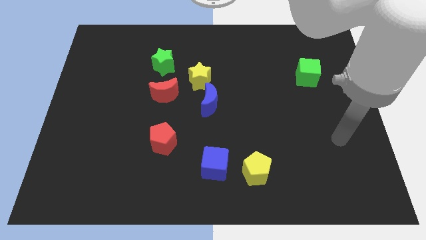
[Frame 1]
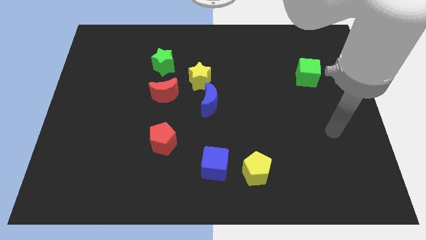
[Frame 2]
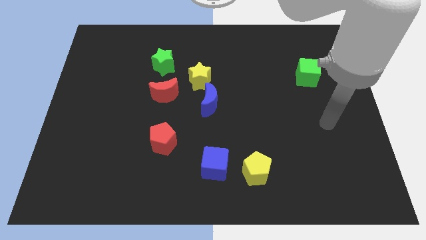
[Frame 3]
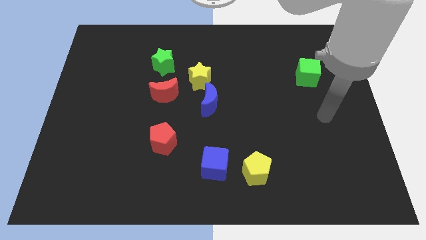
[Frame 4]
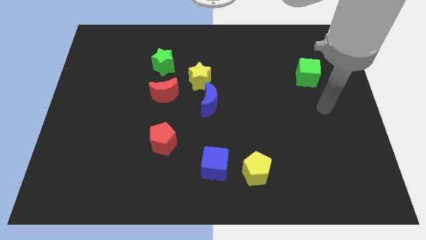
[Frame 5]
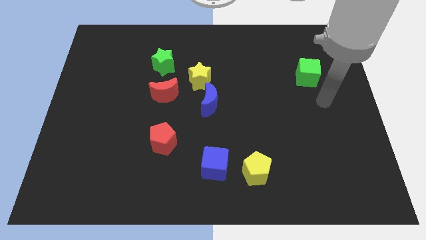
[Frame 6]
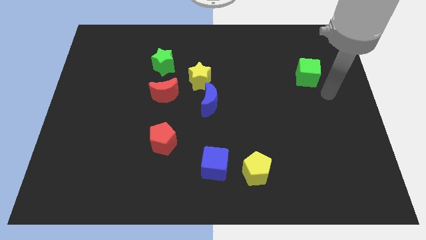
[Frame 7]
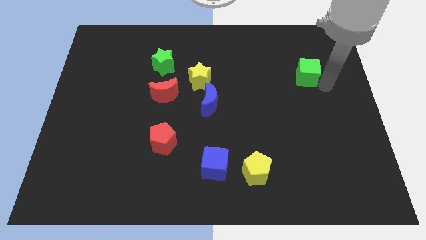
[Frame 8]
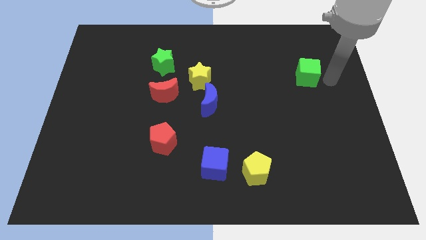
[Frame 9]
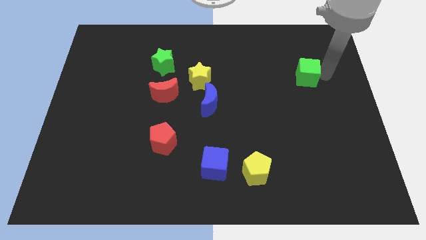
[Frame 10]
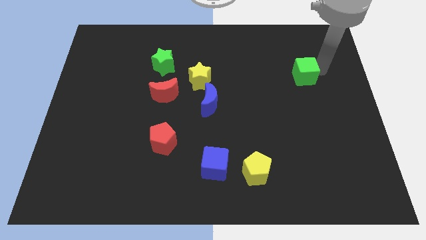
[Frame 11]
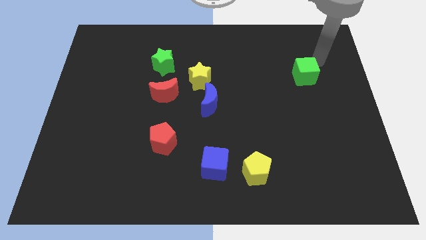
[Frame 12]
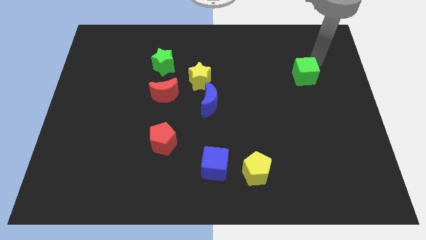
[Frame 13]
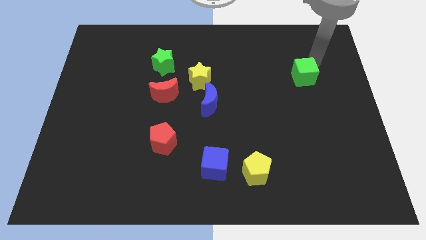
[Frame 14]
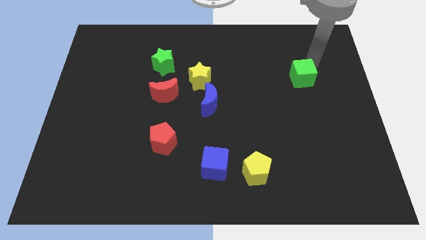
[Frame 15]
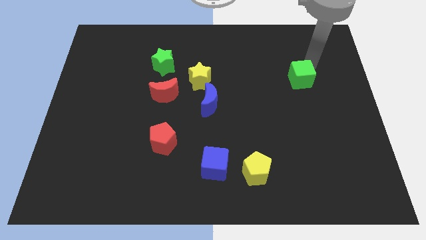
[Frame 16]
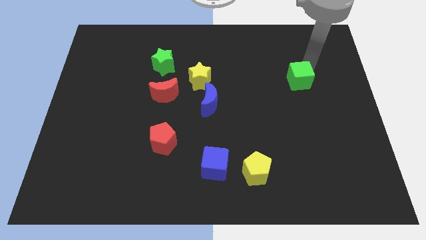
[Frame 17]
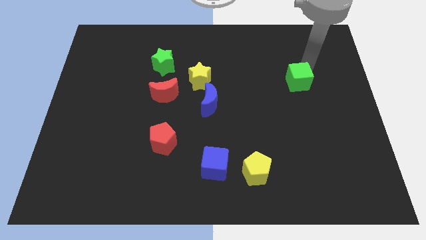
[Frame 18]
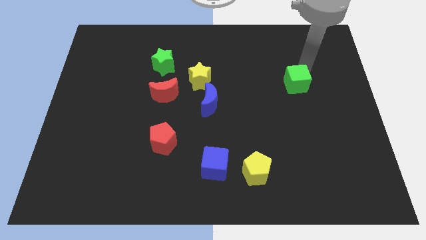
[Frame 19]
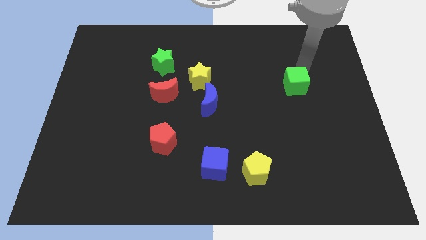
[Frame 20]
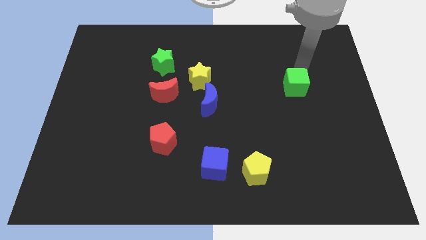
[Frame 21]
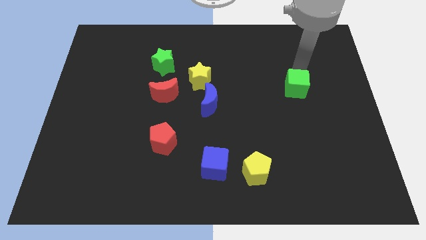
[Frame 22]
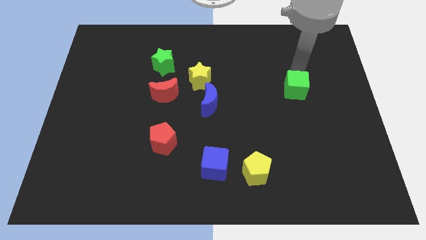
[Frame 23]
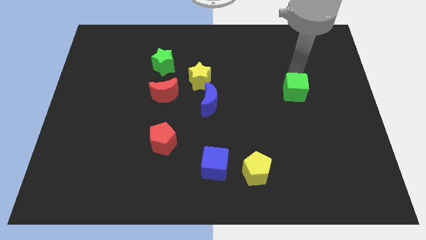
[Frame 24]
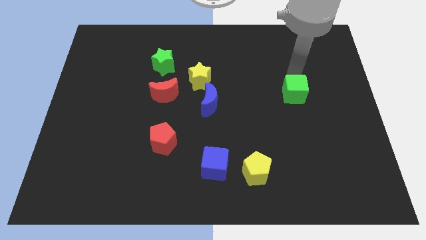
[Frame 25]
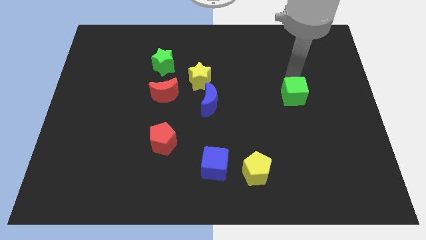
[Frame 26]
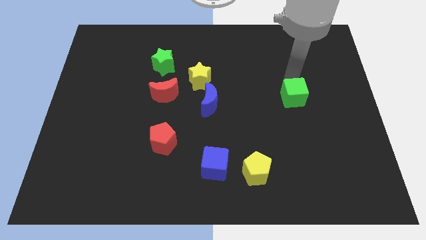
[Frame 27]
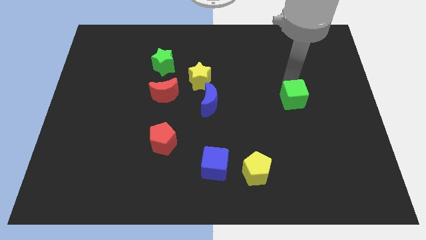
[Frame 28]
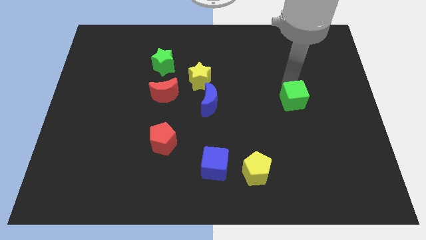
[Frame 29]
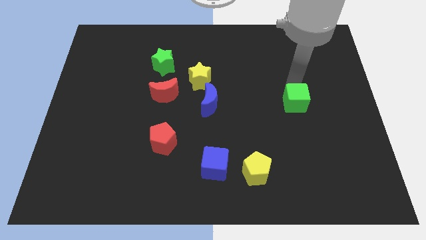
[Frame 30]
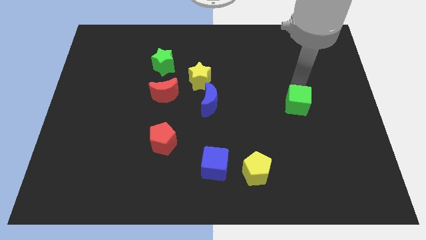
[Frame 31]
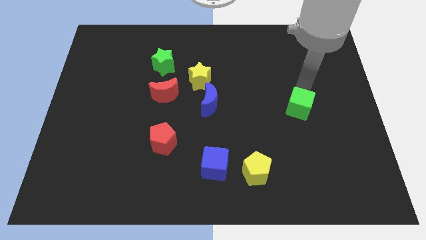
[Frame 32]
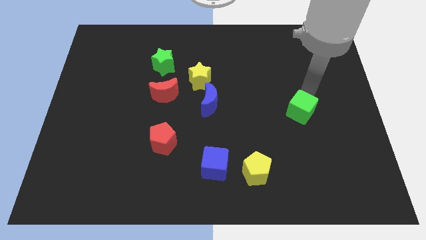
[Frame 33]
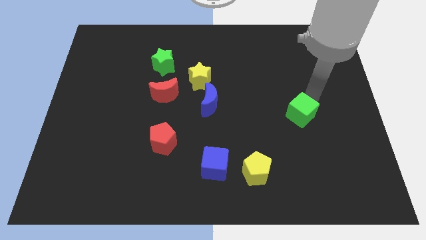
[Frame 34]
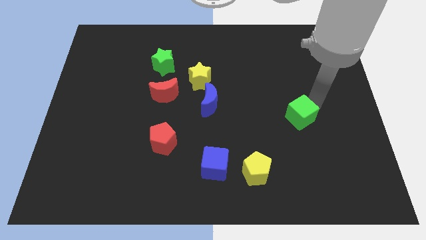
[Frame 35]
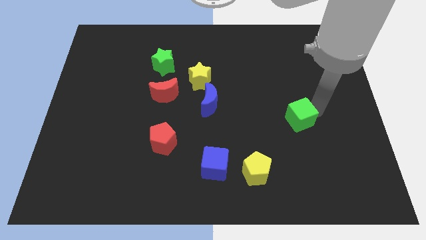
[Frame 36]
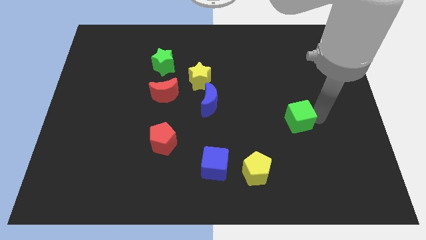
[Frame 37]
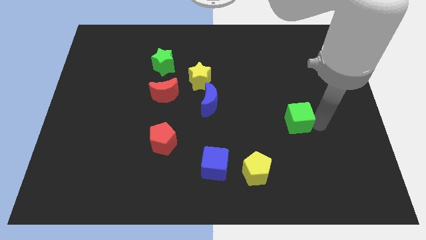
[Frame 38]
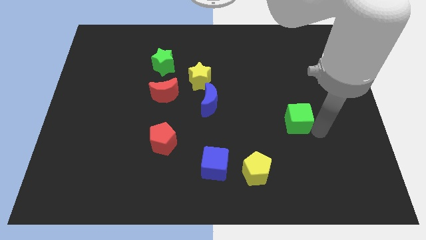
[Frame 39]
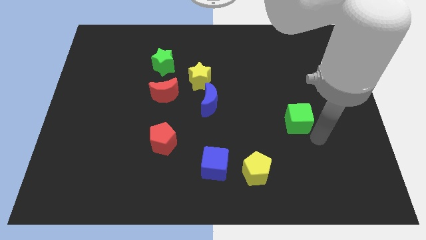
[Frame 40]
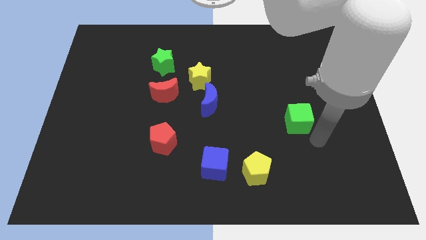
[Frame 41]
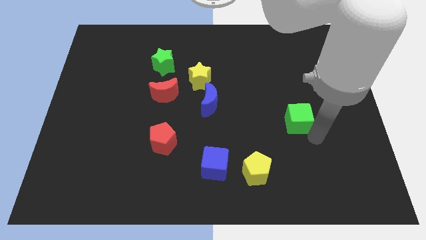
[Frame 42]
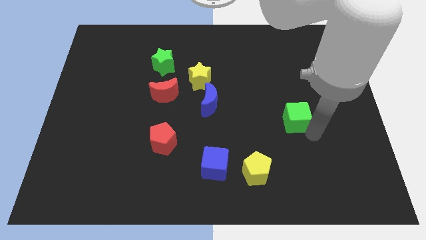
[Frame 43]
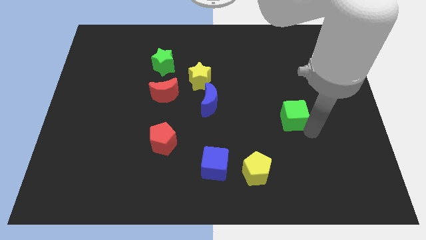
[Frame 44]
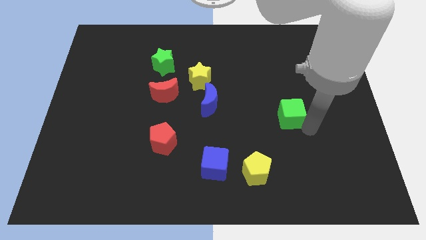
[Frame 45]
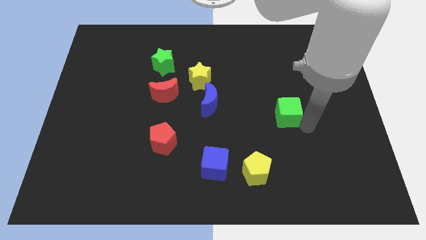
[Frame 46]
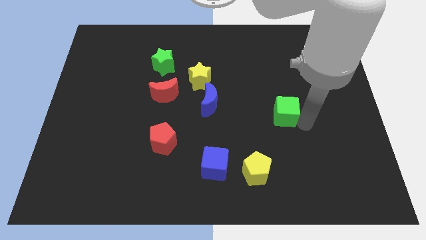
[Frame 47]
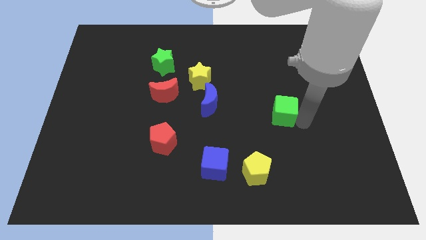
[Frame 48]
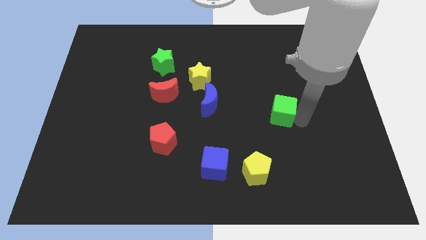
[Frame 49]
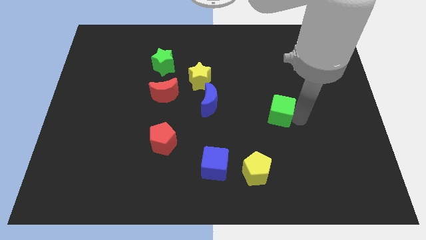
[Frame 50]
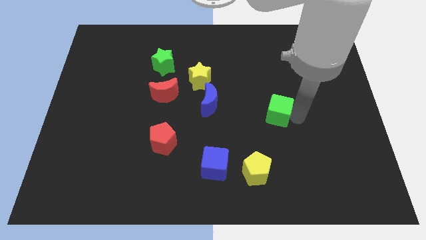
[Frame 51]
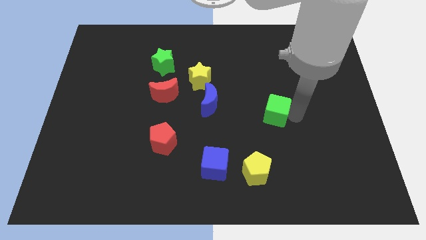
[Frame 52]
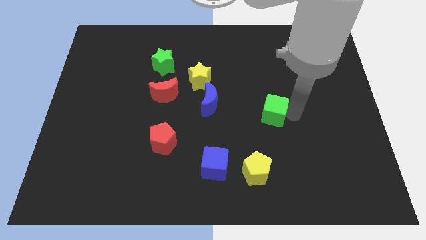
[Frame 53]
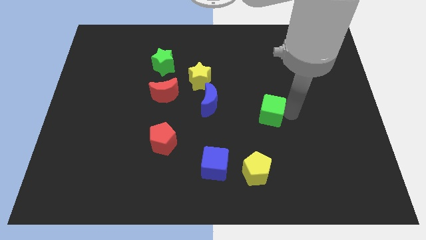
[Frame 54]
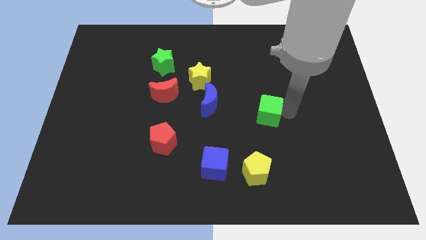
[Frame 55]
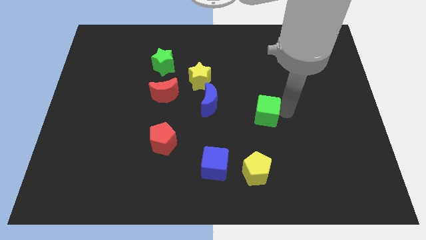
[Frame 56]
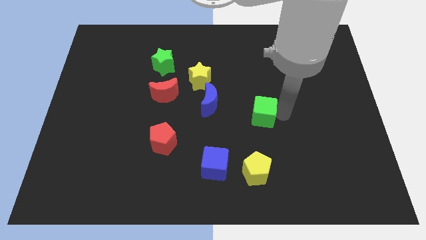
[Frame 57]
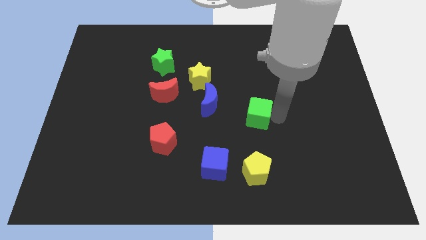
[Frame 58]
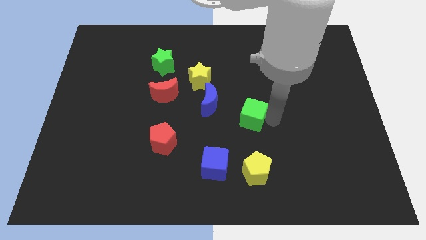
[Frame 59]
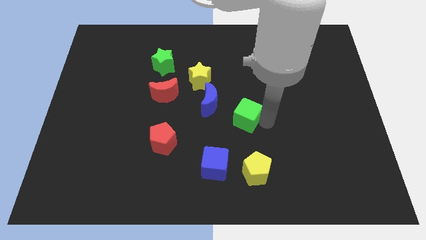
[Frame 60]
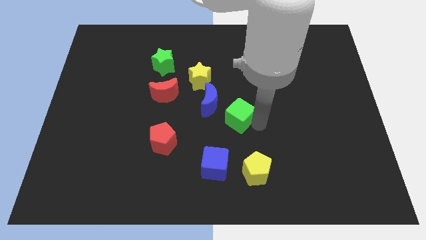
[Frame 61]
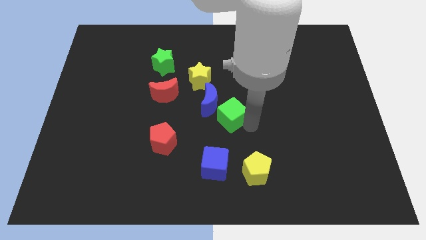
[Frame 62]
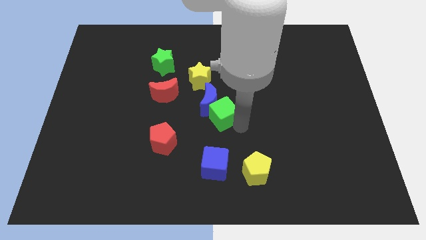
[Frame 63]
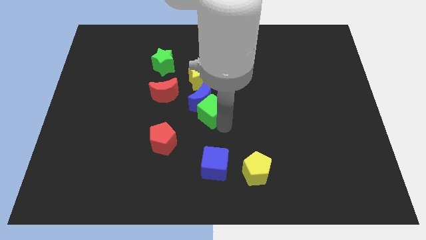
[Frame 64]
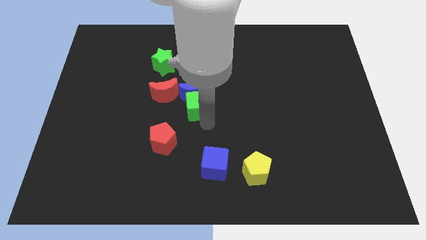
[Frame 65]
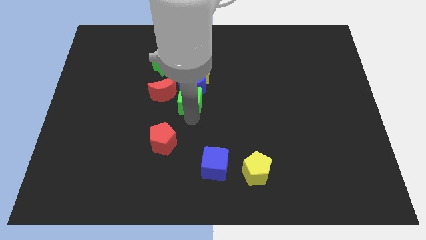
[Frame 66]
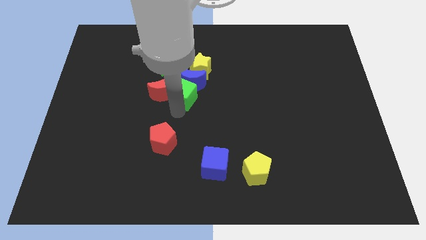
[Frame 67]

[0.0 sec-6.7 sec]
slide the green cube close to the red moon
